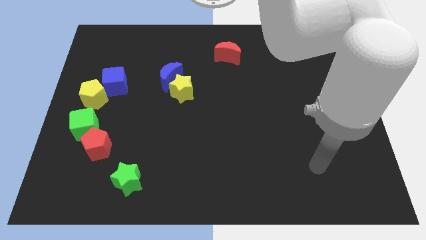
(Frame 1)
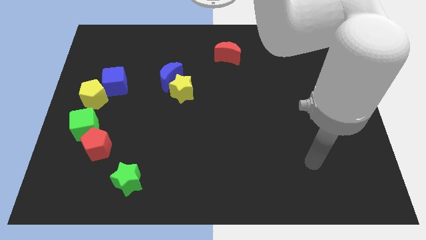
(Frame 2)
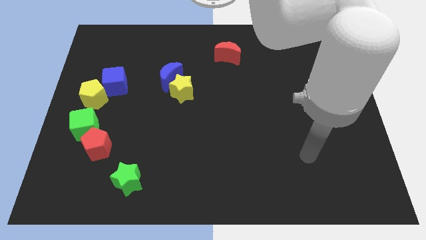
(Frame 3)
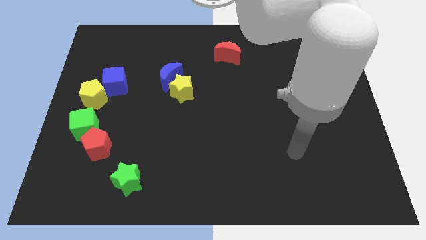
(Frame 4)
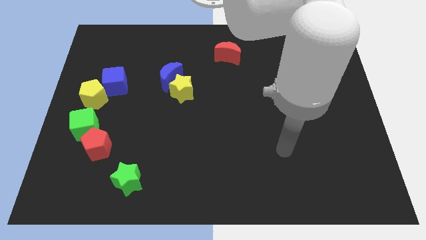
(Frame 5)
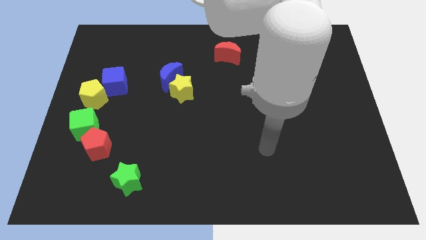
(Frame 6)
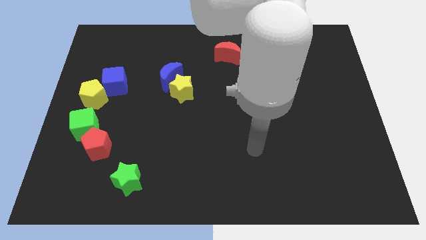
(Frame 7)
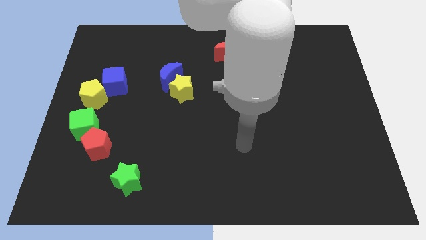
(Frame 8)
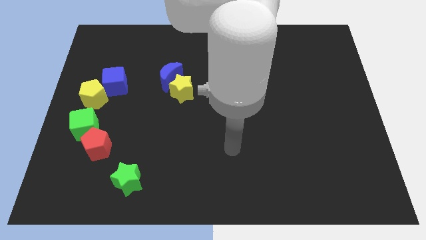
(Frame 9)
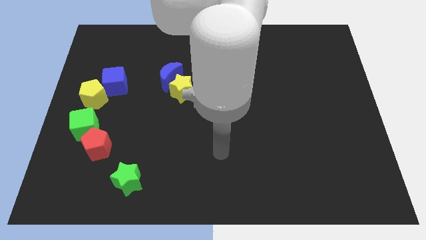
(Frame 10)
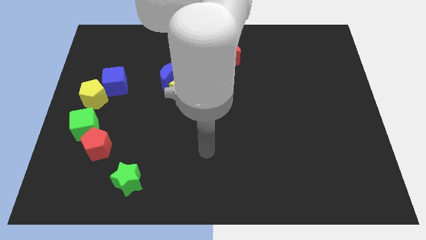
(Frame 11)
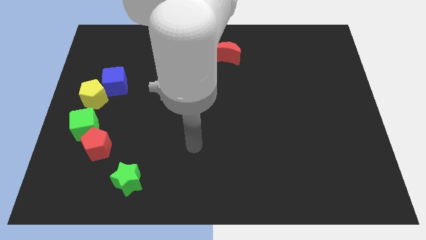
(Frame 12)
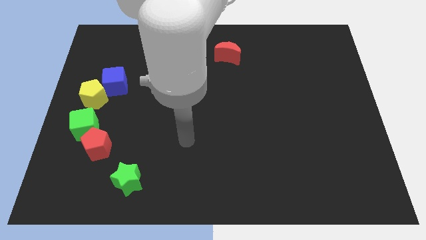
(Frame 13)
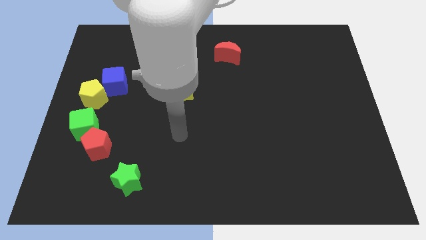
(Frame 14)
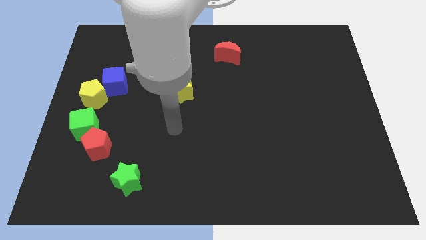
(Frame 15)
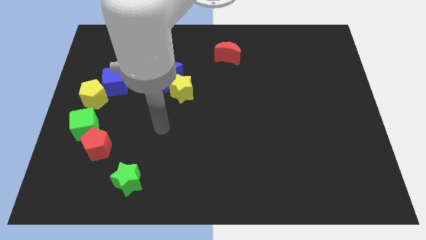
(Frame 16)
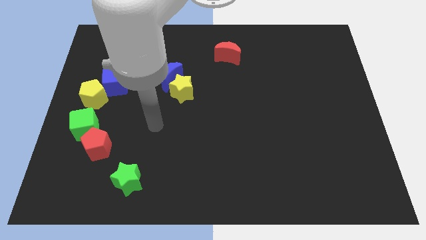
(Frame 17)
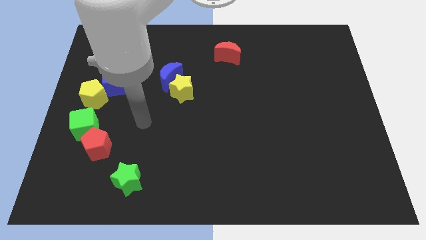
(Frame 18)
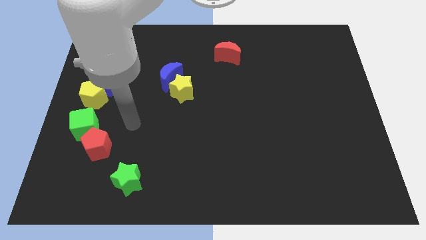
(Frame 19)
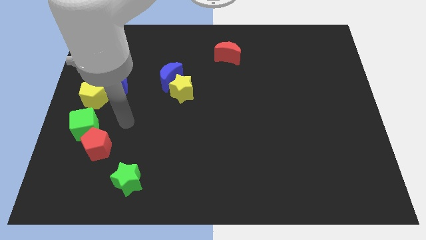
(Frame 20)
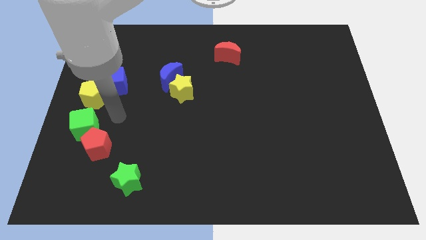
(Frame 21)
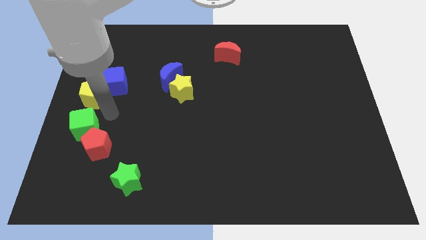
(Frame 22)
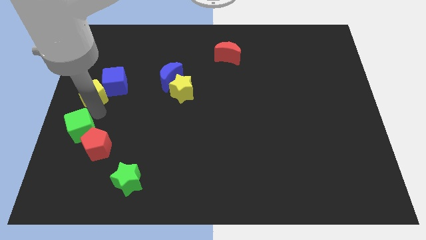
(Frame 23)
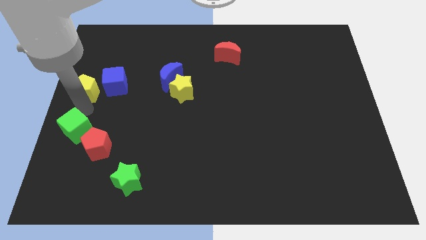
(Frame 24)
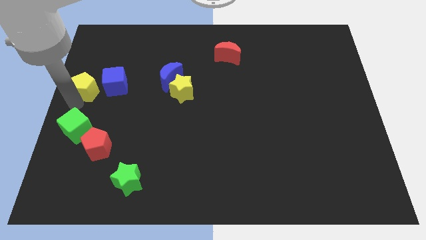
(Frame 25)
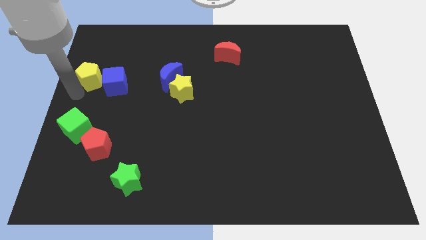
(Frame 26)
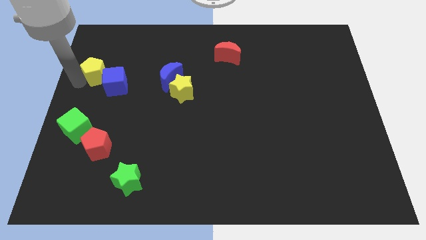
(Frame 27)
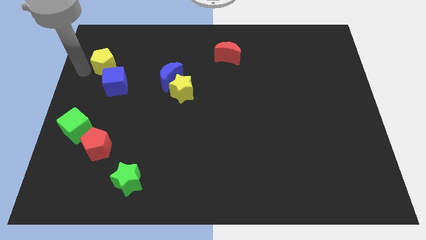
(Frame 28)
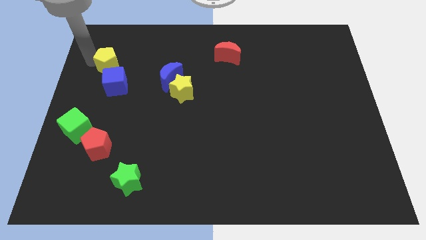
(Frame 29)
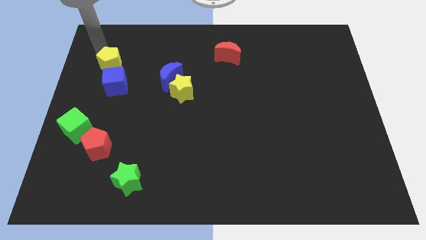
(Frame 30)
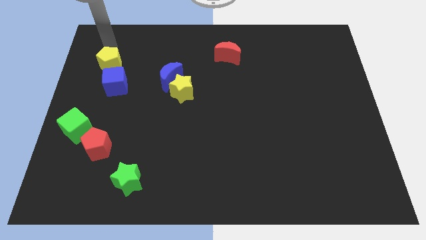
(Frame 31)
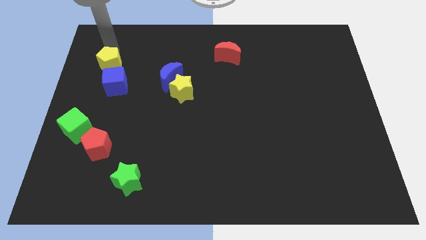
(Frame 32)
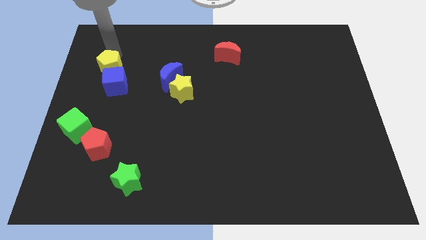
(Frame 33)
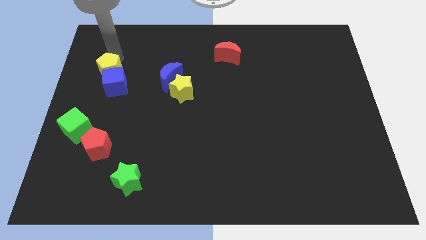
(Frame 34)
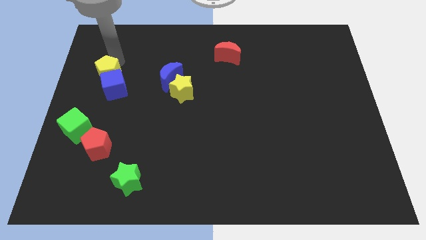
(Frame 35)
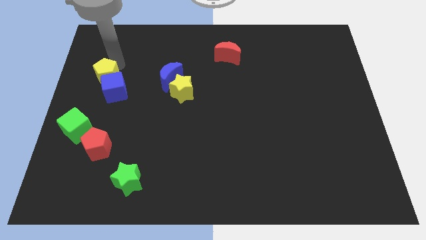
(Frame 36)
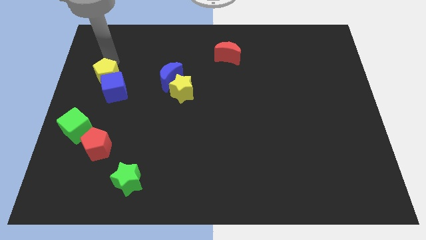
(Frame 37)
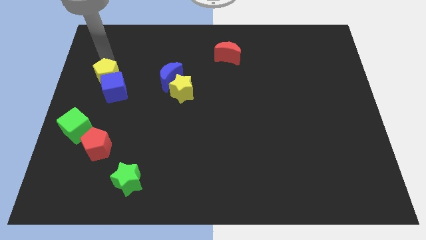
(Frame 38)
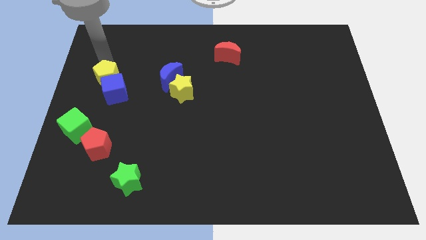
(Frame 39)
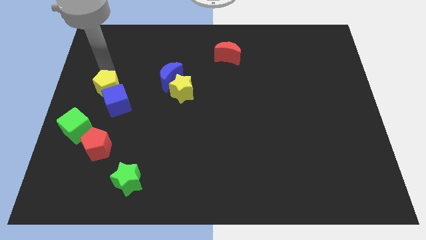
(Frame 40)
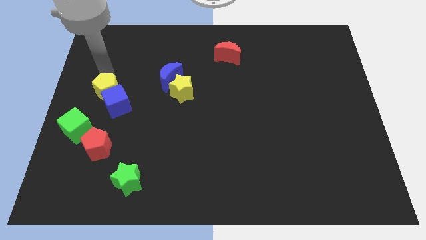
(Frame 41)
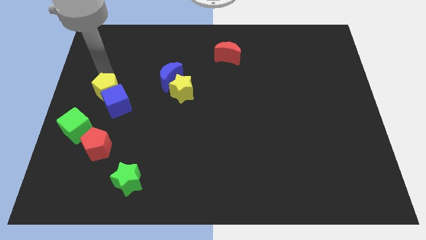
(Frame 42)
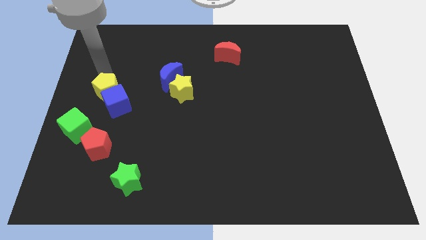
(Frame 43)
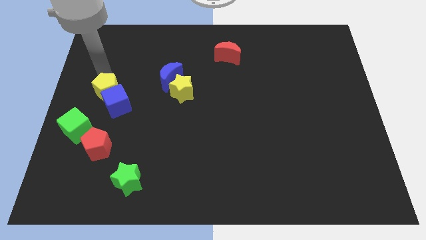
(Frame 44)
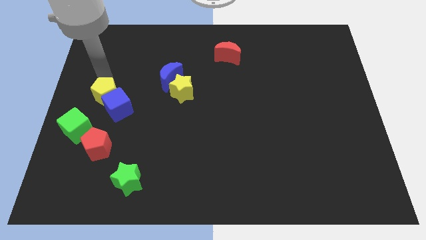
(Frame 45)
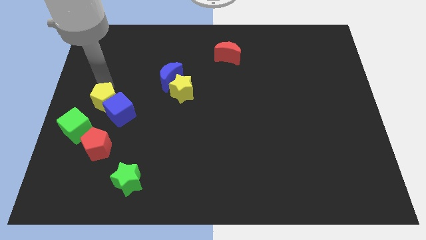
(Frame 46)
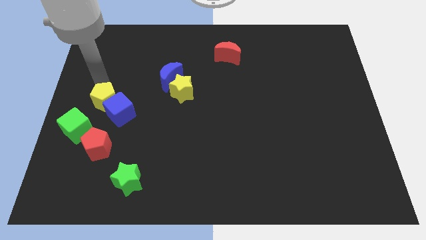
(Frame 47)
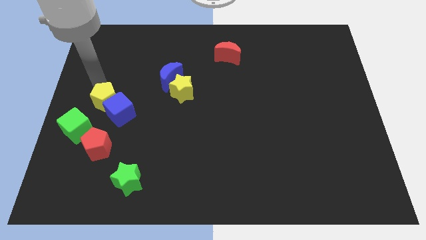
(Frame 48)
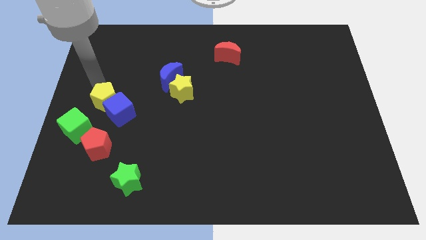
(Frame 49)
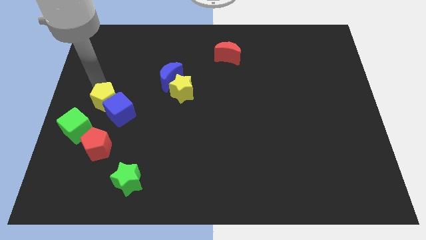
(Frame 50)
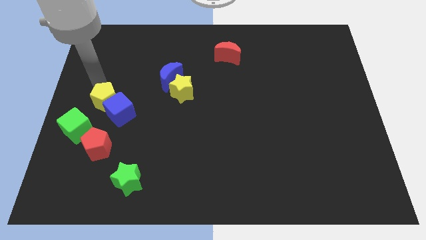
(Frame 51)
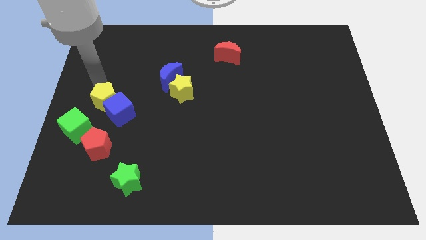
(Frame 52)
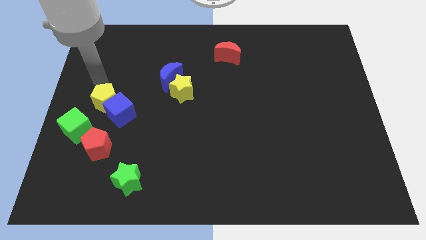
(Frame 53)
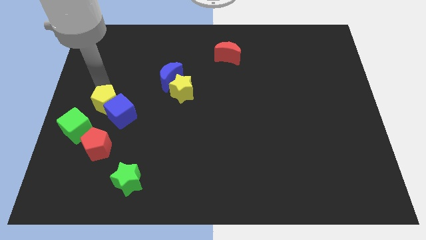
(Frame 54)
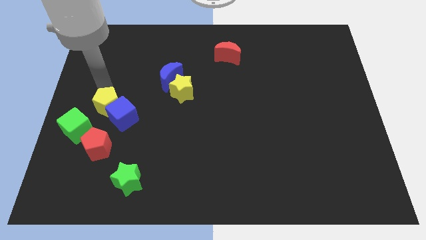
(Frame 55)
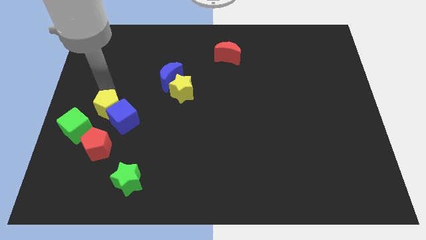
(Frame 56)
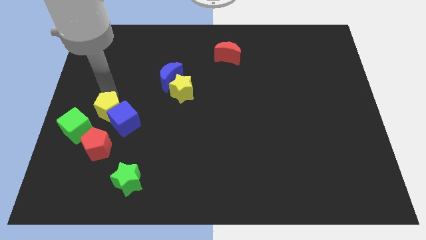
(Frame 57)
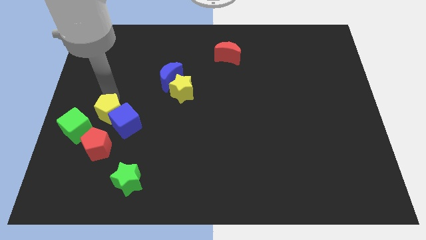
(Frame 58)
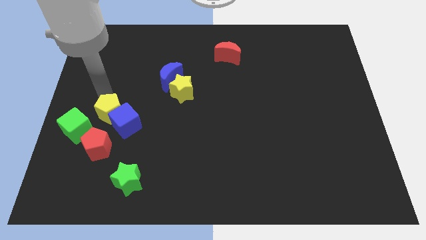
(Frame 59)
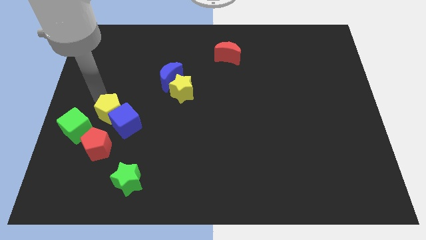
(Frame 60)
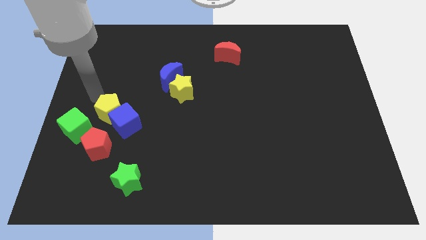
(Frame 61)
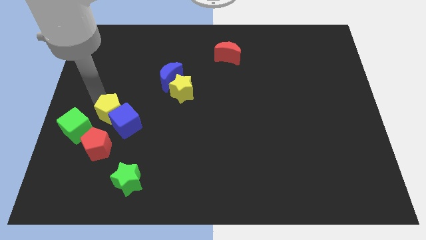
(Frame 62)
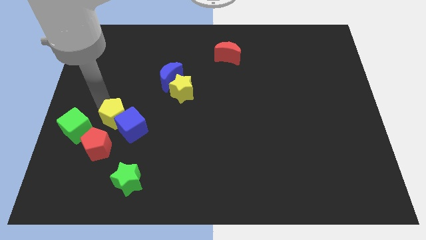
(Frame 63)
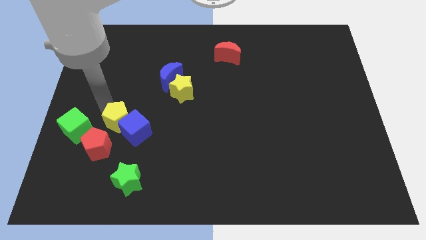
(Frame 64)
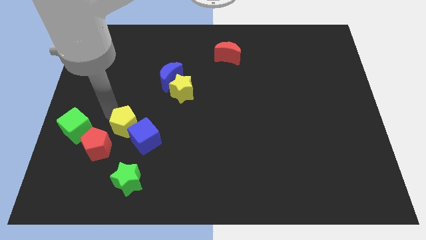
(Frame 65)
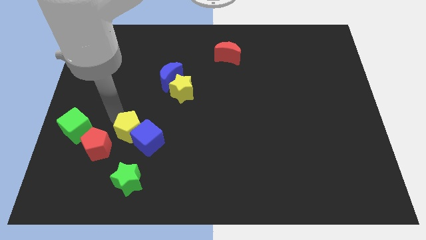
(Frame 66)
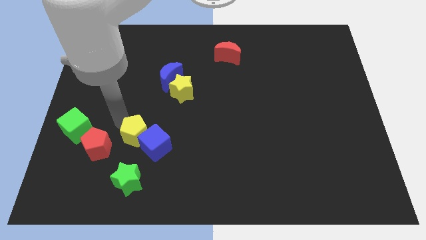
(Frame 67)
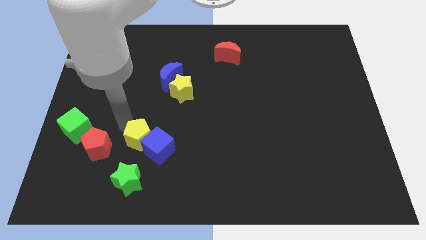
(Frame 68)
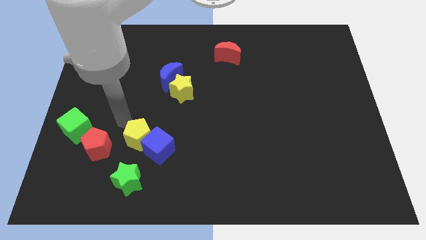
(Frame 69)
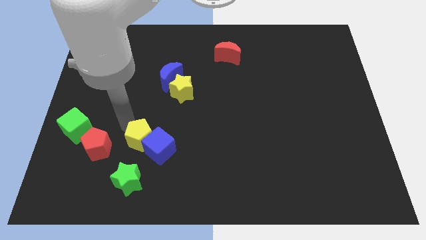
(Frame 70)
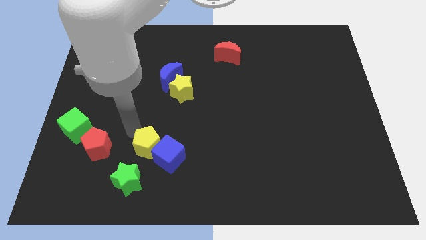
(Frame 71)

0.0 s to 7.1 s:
slide the yellow pentagon downwards and then to the right

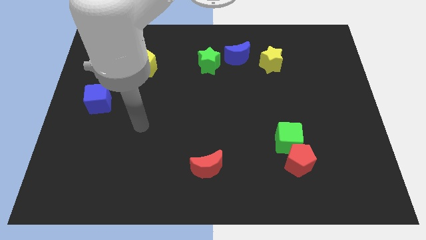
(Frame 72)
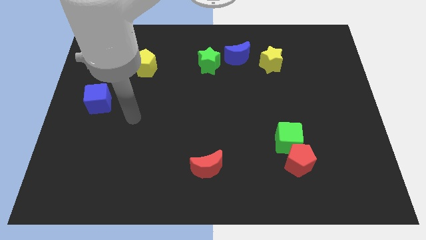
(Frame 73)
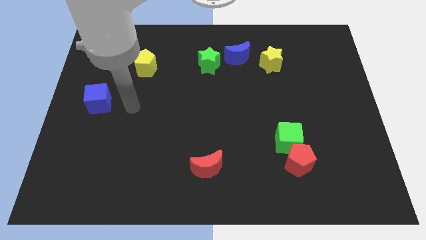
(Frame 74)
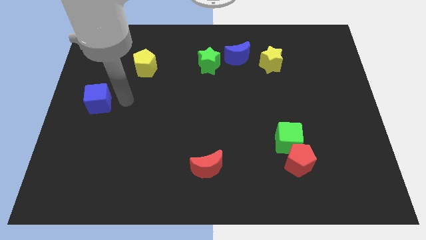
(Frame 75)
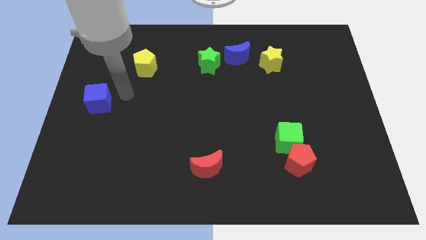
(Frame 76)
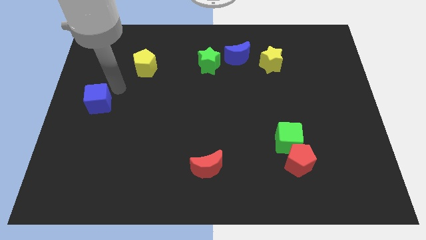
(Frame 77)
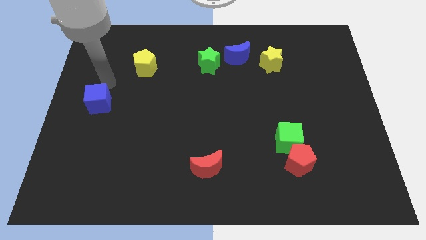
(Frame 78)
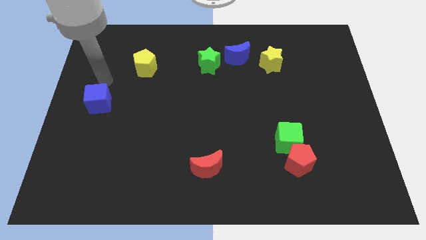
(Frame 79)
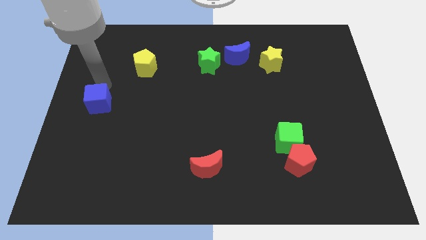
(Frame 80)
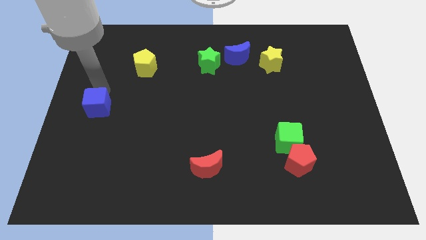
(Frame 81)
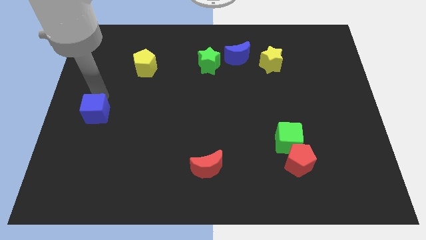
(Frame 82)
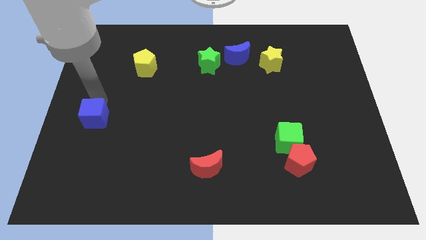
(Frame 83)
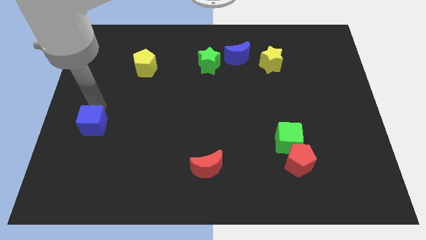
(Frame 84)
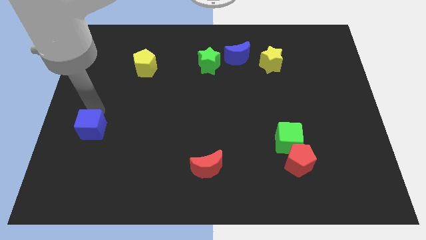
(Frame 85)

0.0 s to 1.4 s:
slightly slide the blue cube downwards
